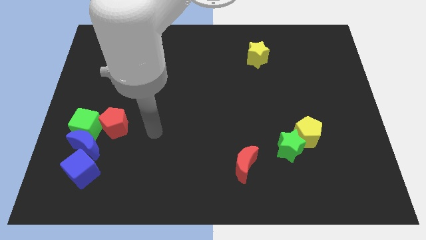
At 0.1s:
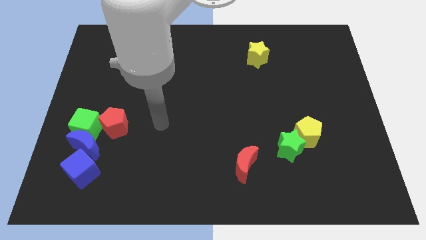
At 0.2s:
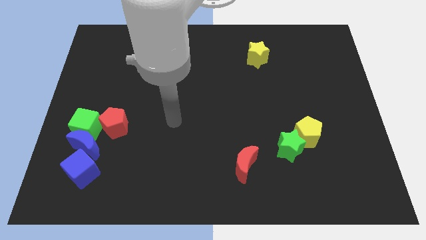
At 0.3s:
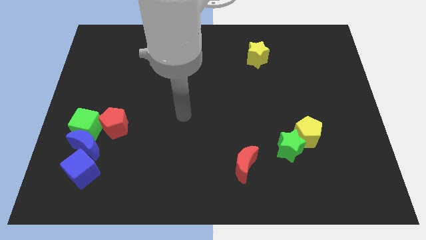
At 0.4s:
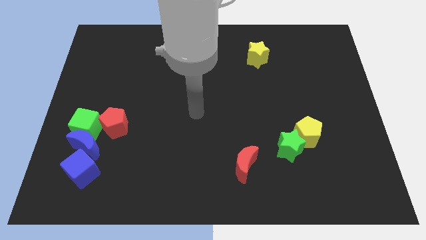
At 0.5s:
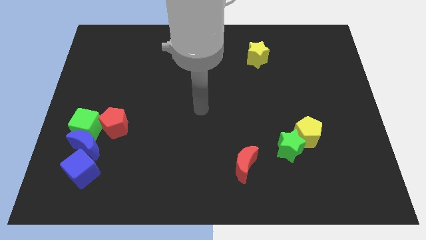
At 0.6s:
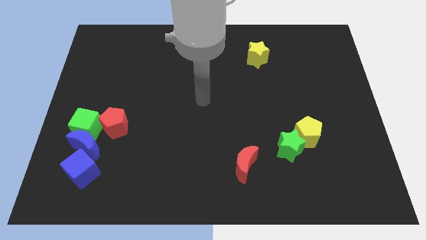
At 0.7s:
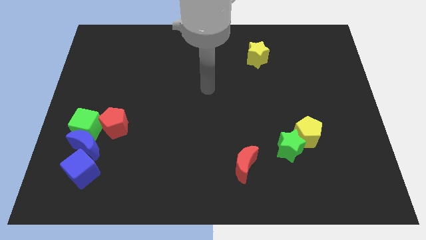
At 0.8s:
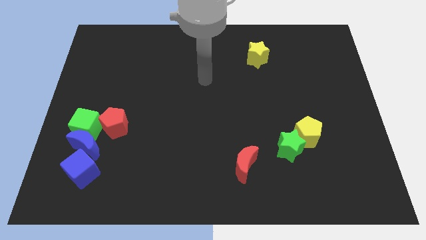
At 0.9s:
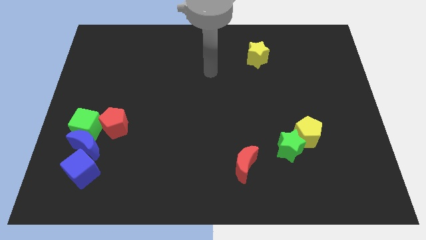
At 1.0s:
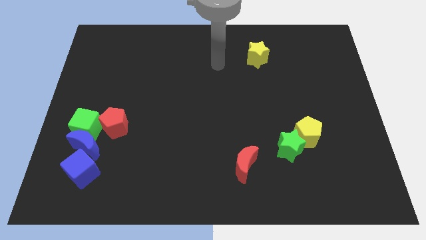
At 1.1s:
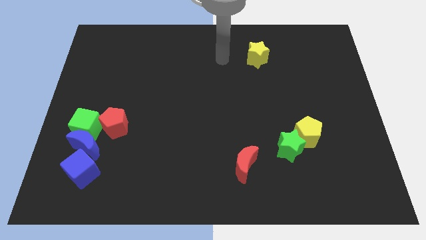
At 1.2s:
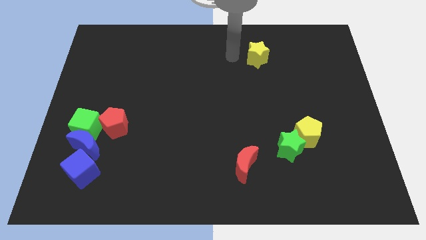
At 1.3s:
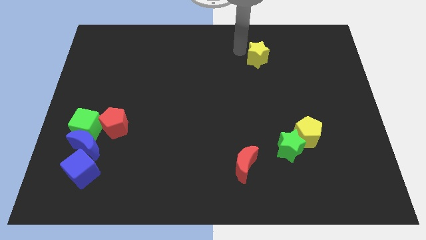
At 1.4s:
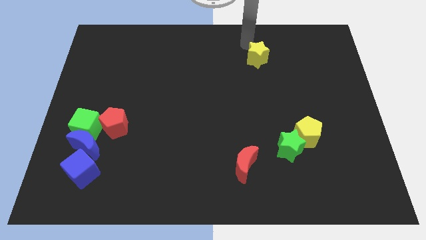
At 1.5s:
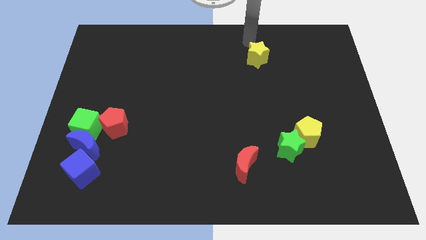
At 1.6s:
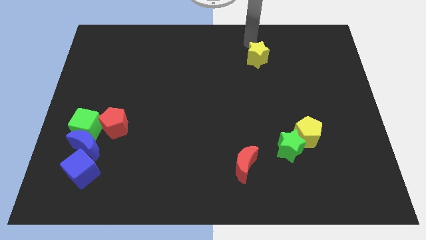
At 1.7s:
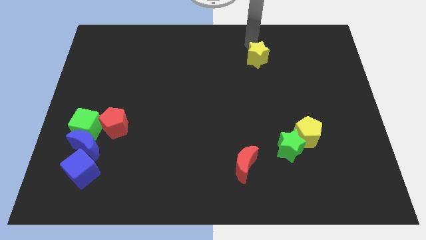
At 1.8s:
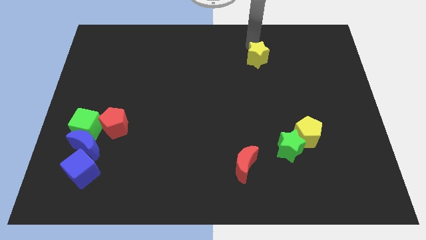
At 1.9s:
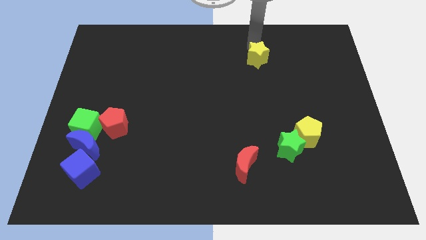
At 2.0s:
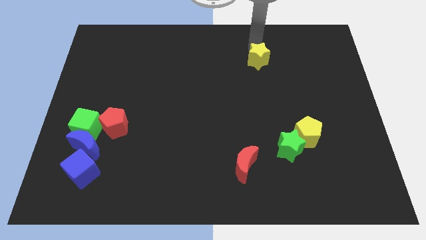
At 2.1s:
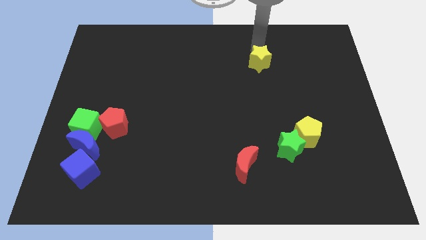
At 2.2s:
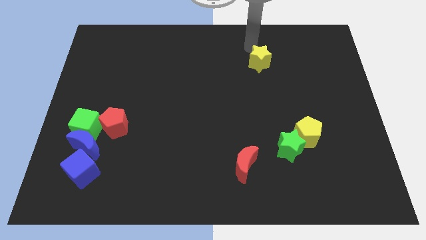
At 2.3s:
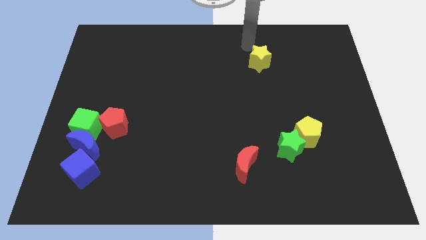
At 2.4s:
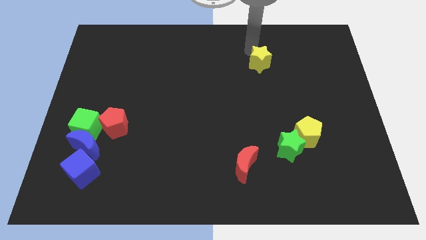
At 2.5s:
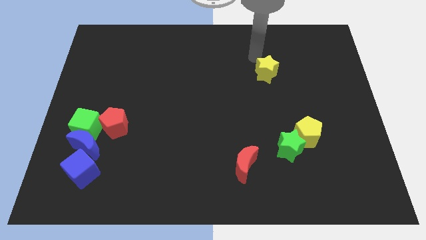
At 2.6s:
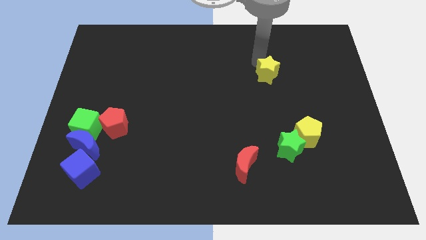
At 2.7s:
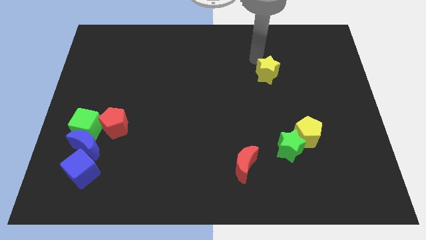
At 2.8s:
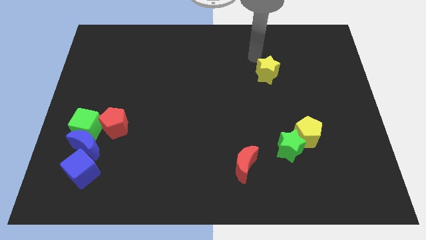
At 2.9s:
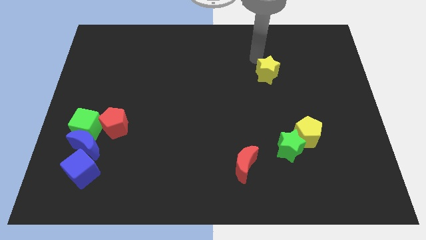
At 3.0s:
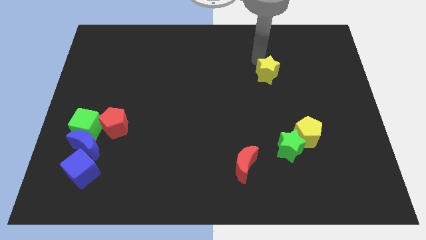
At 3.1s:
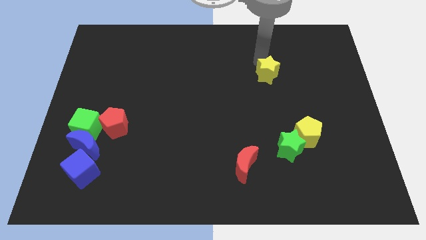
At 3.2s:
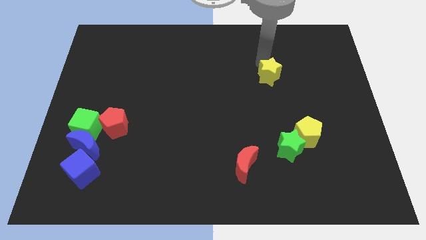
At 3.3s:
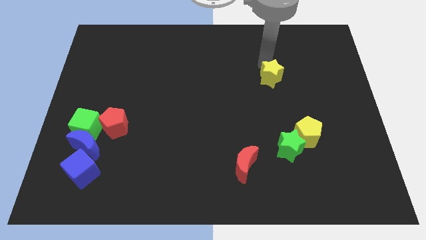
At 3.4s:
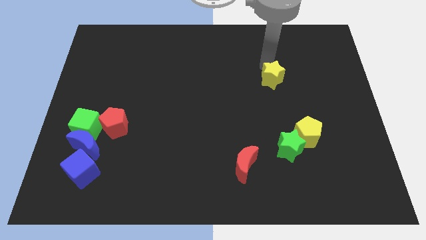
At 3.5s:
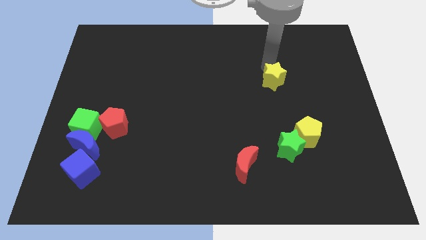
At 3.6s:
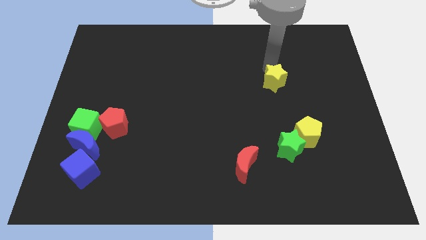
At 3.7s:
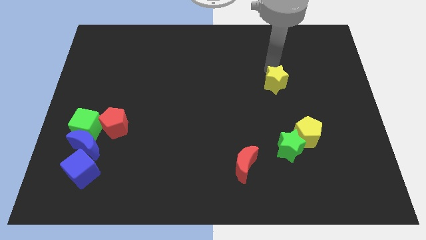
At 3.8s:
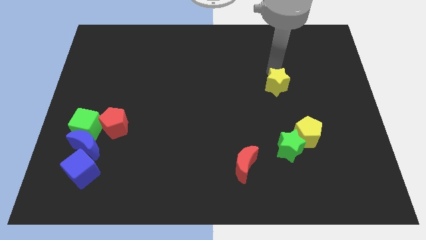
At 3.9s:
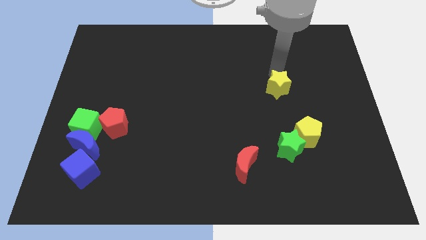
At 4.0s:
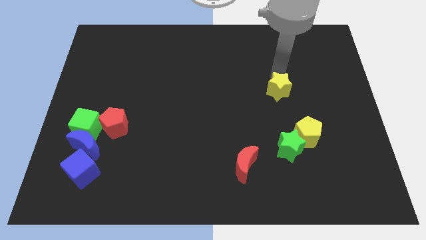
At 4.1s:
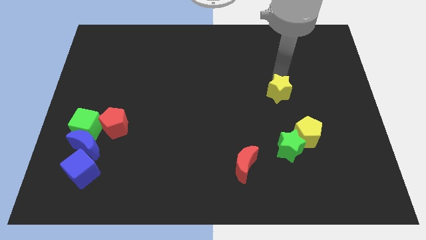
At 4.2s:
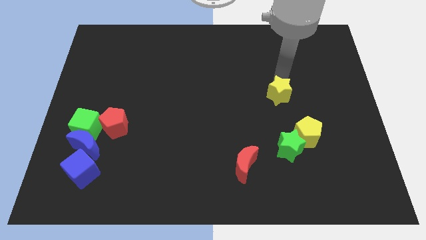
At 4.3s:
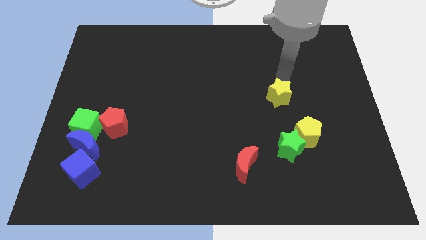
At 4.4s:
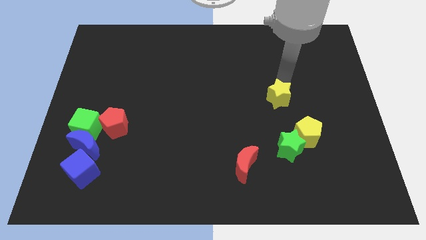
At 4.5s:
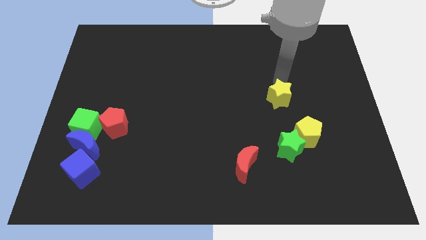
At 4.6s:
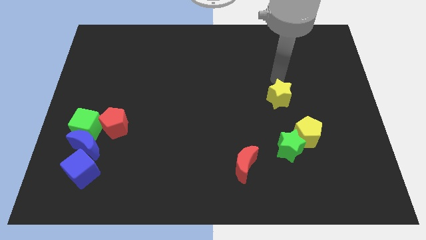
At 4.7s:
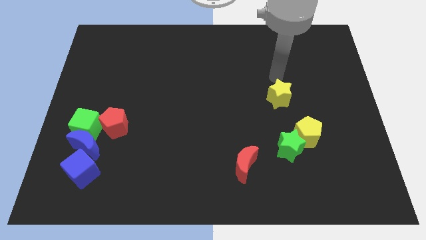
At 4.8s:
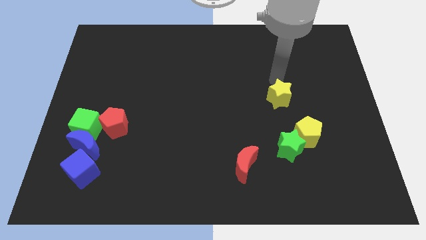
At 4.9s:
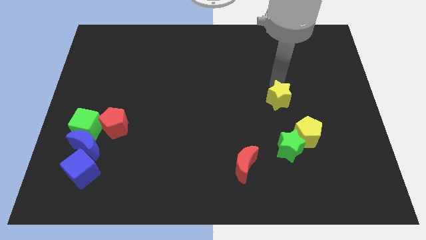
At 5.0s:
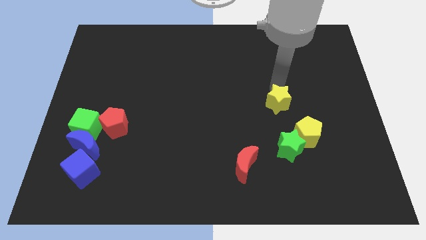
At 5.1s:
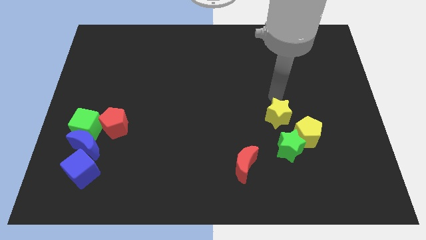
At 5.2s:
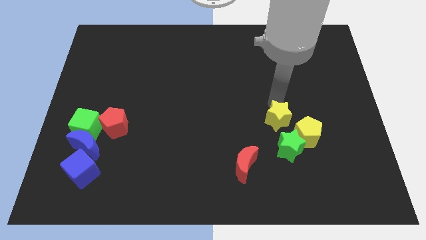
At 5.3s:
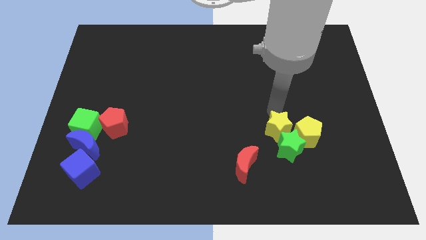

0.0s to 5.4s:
slide the yellow star next to the green star

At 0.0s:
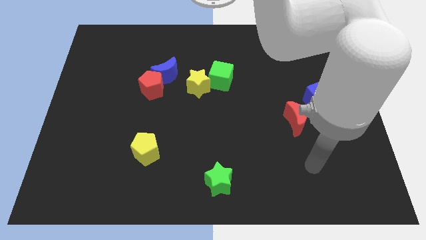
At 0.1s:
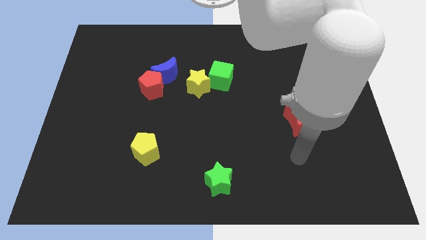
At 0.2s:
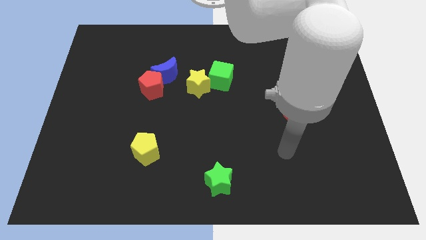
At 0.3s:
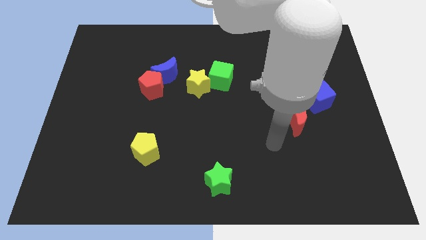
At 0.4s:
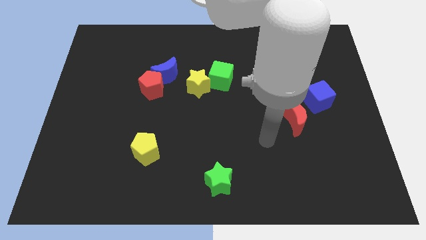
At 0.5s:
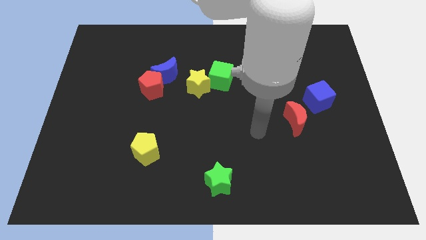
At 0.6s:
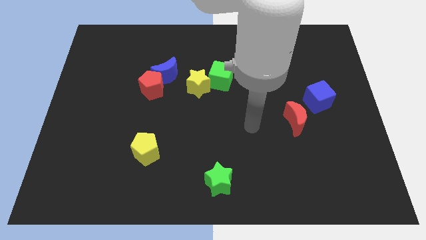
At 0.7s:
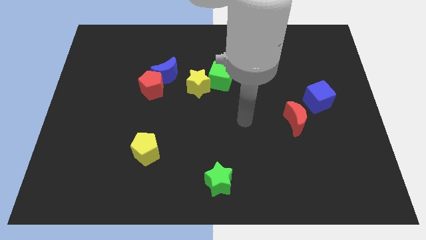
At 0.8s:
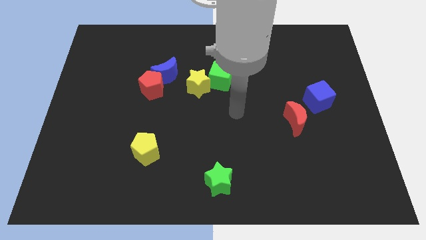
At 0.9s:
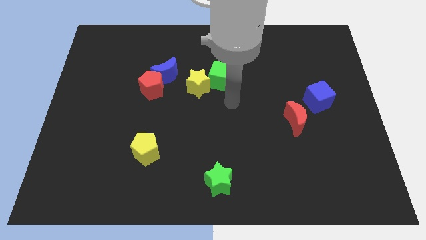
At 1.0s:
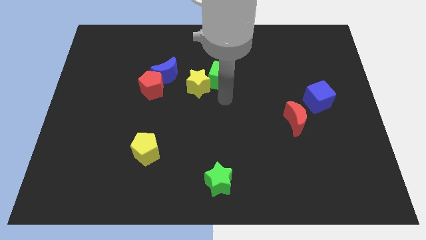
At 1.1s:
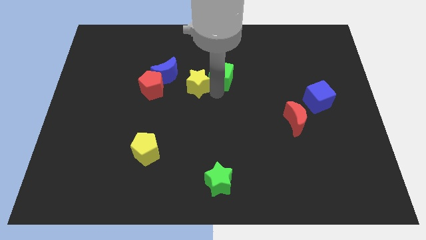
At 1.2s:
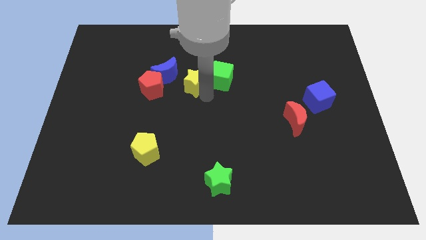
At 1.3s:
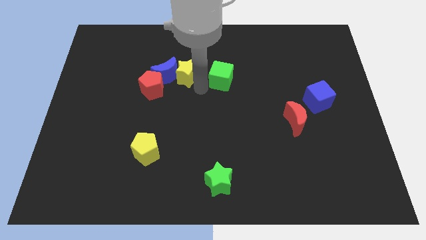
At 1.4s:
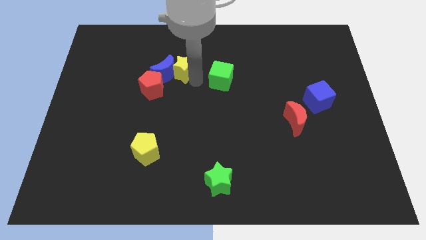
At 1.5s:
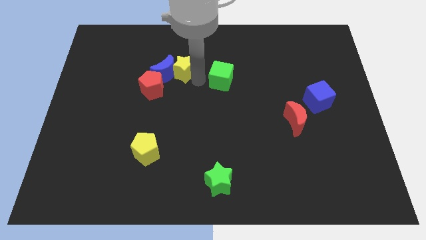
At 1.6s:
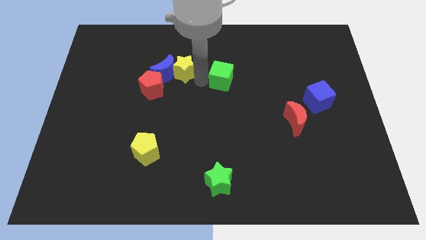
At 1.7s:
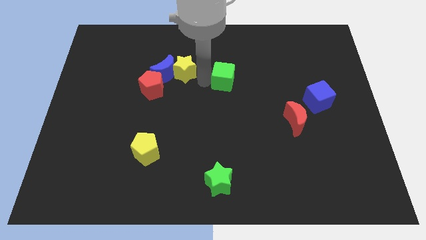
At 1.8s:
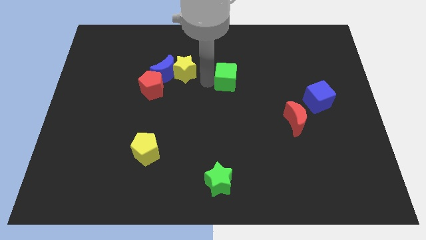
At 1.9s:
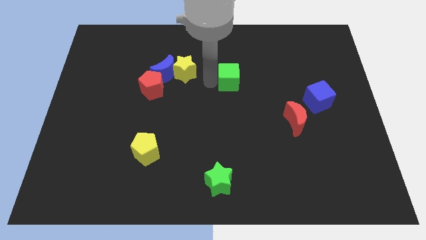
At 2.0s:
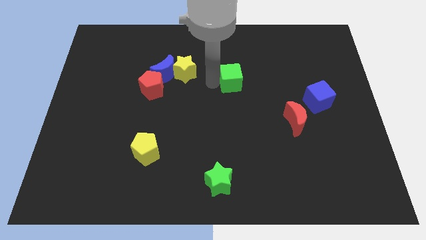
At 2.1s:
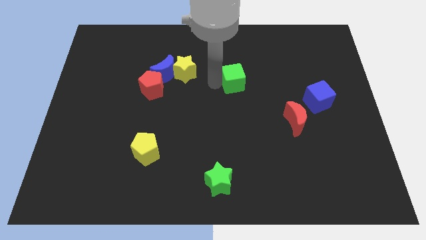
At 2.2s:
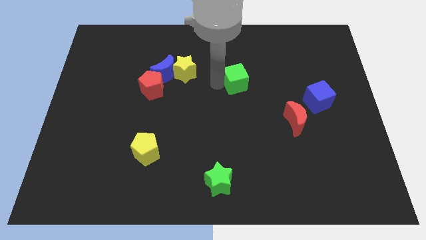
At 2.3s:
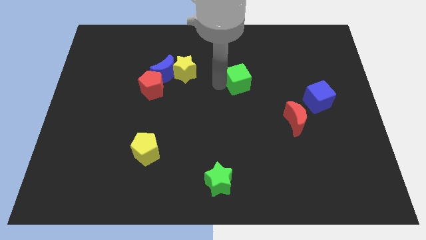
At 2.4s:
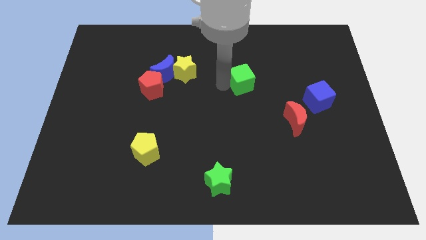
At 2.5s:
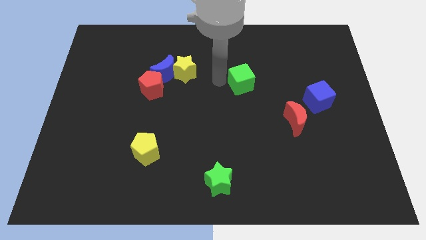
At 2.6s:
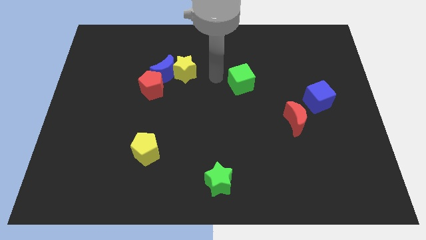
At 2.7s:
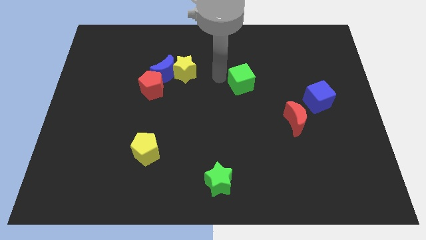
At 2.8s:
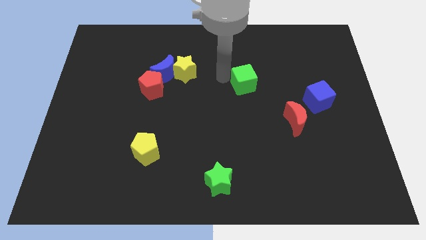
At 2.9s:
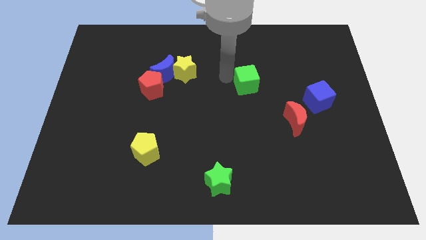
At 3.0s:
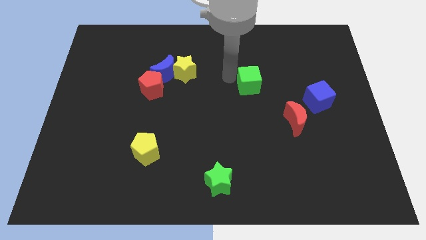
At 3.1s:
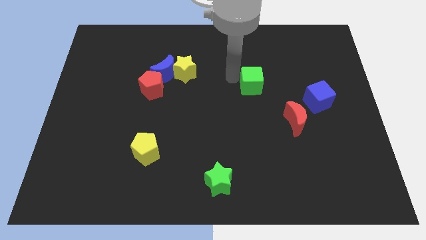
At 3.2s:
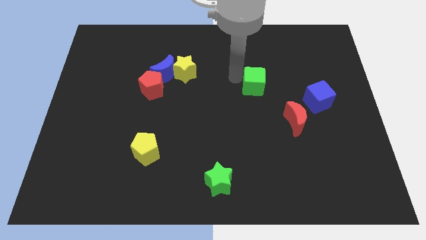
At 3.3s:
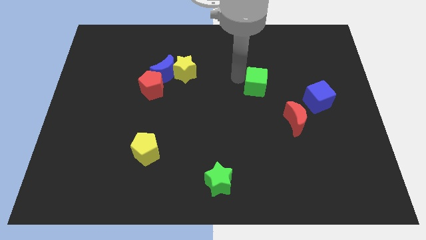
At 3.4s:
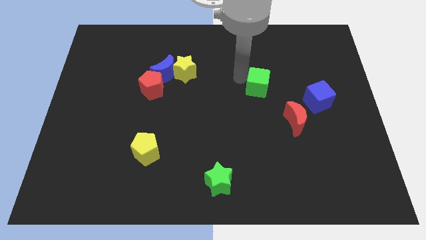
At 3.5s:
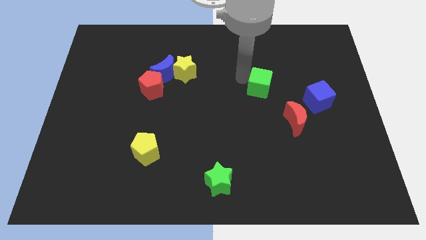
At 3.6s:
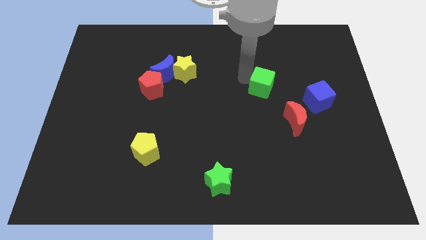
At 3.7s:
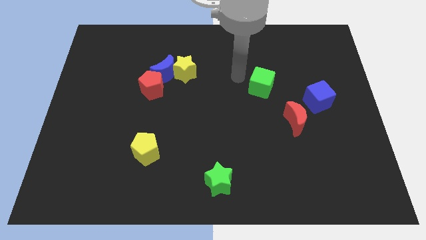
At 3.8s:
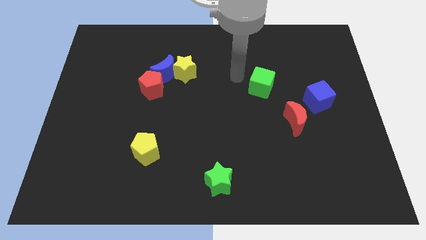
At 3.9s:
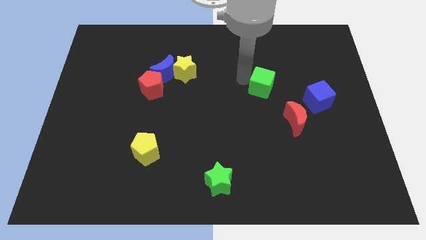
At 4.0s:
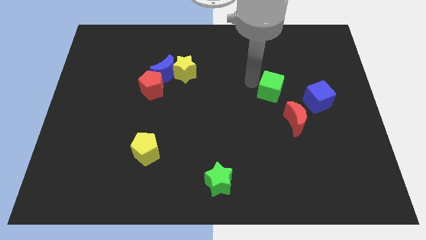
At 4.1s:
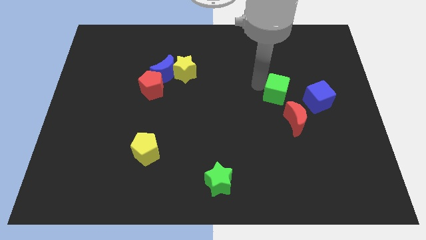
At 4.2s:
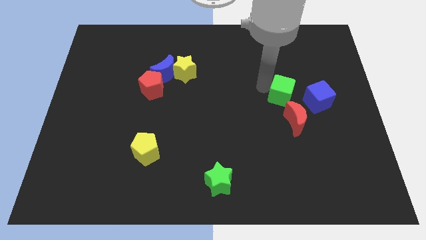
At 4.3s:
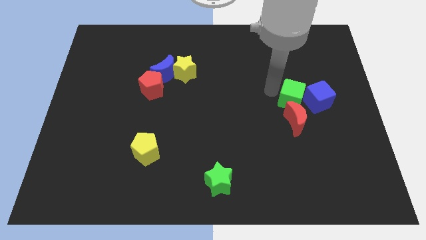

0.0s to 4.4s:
put the green cube towards the blue cube
